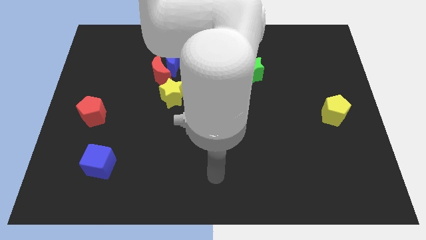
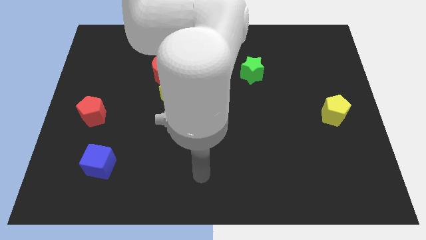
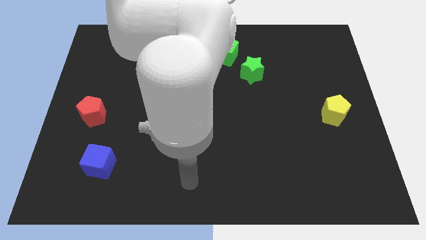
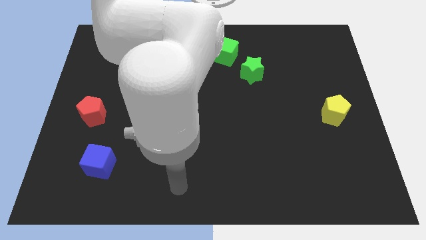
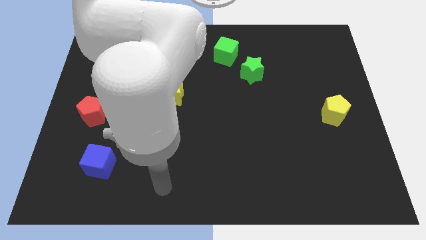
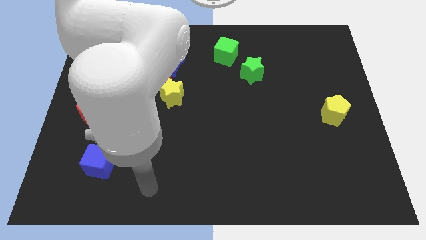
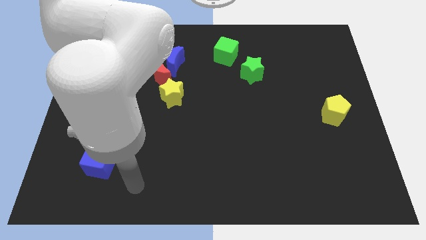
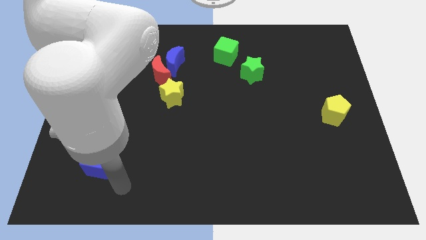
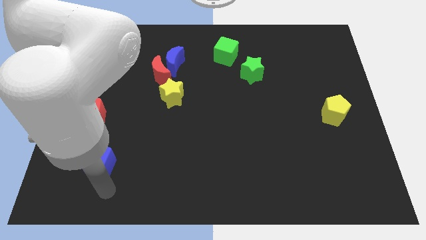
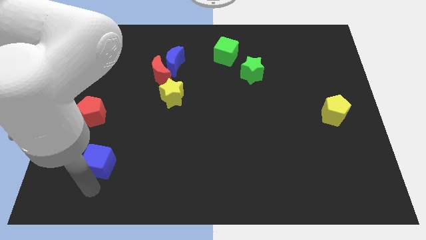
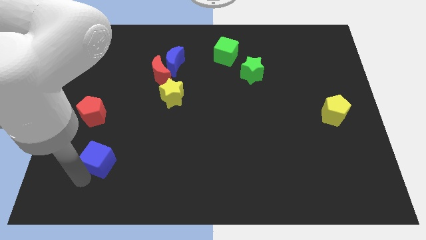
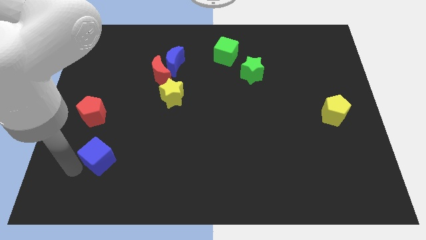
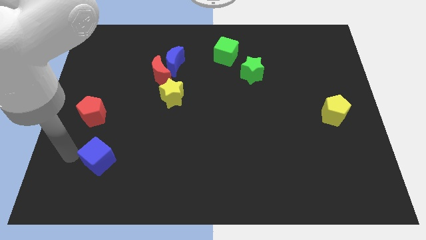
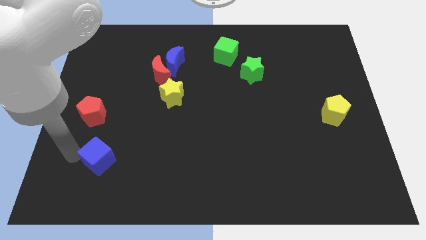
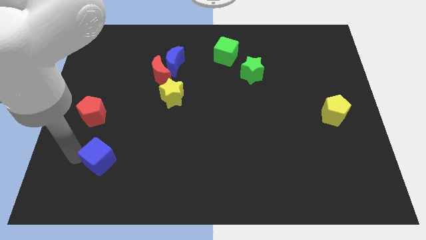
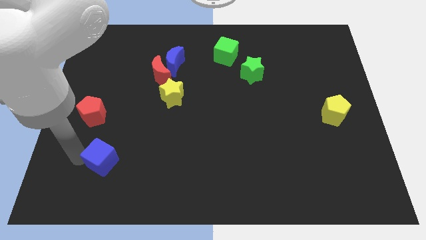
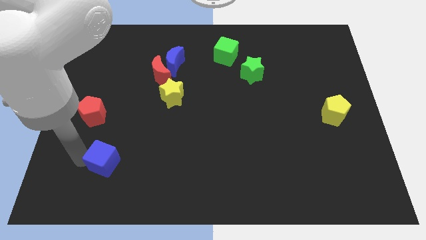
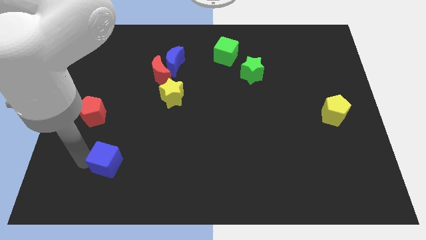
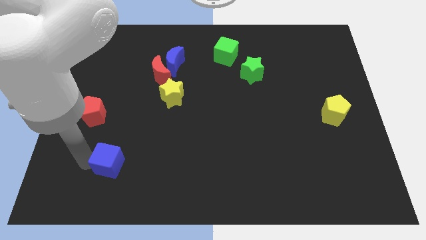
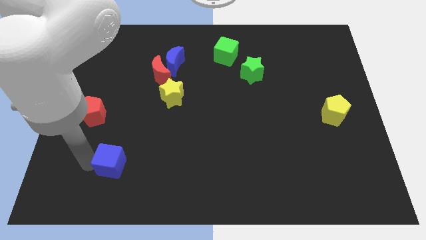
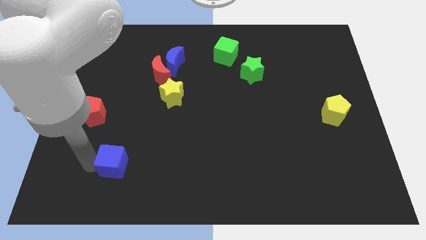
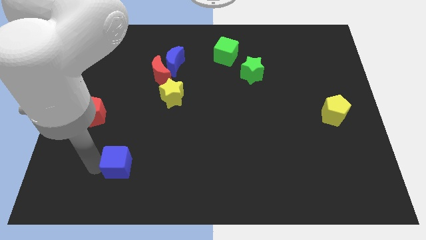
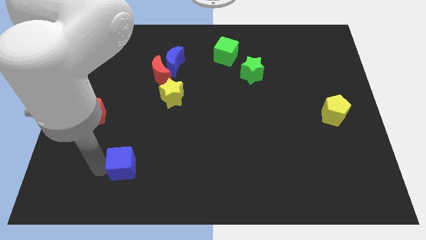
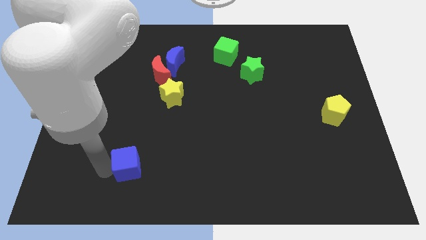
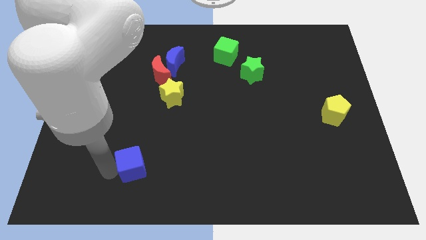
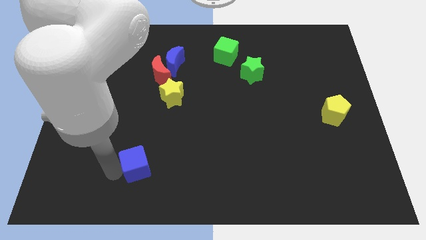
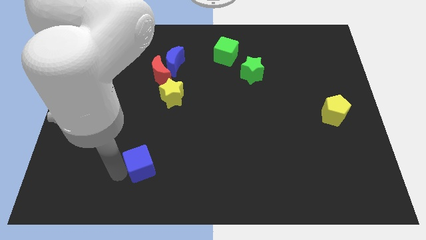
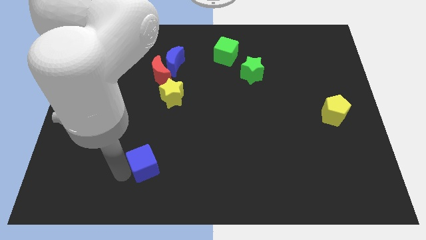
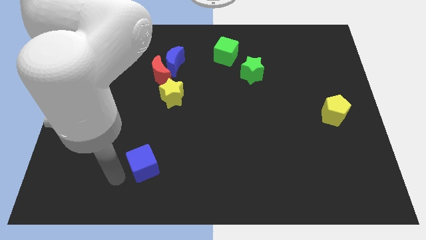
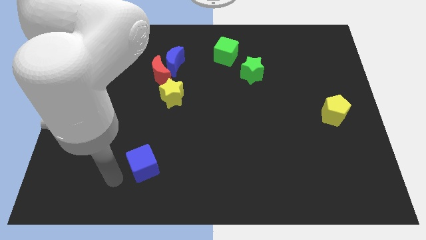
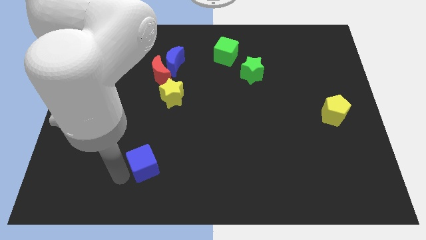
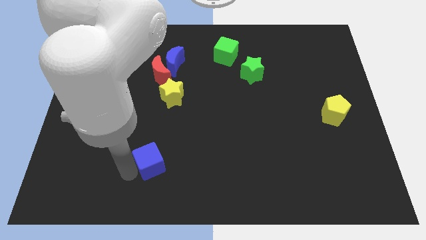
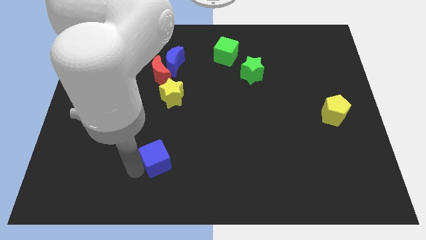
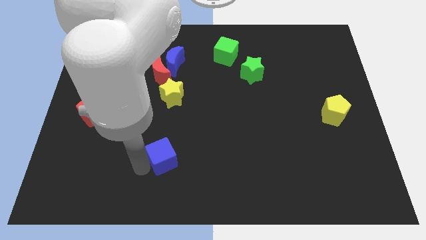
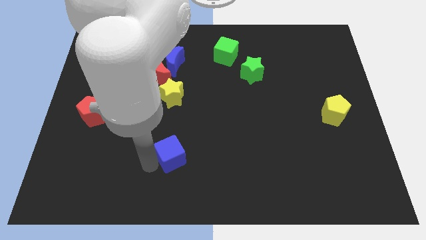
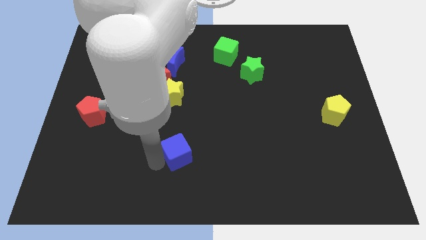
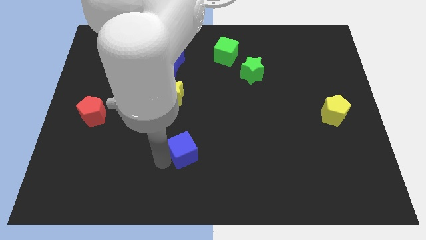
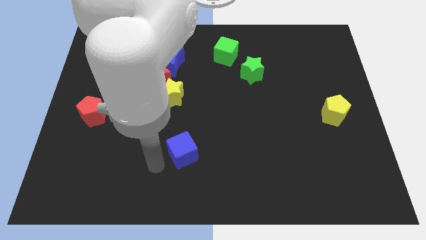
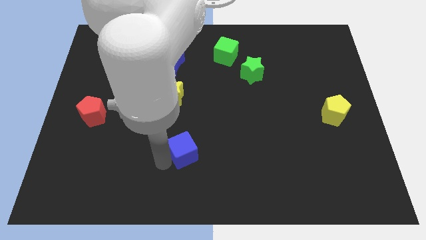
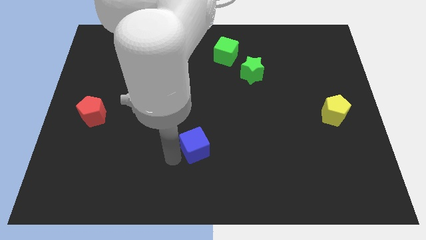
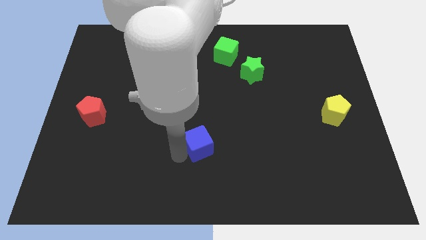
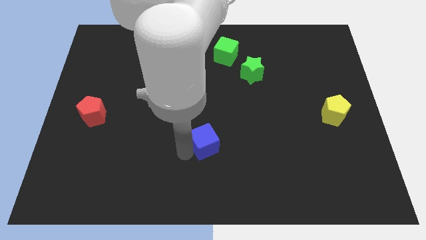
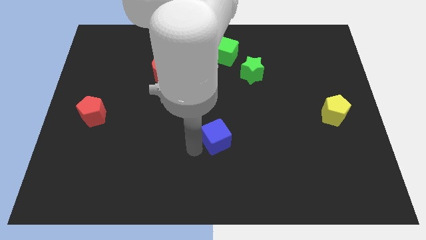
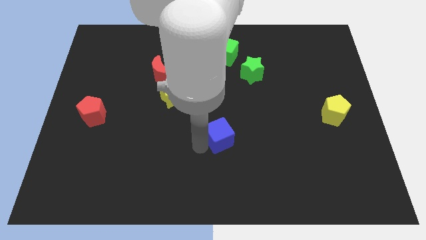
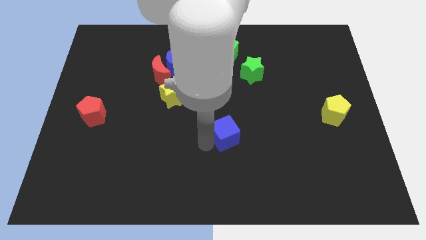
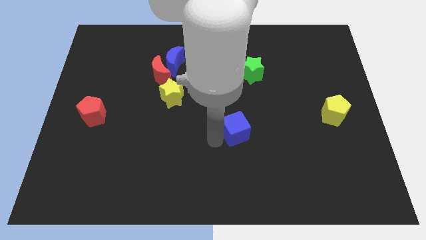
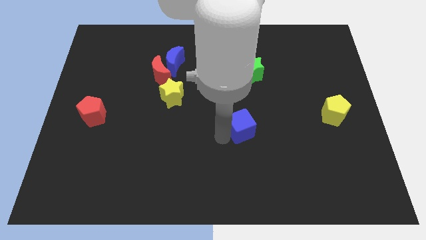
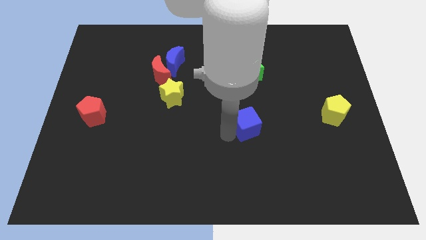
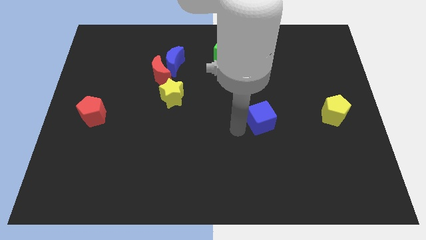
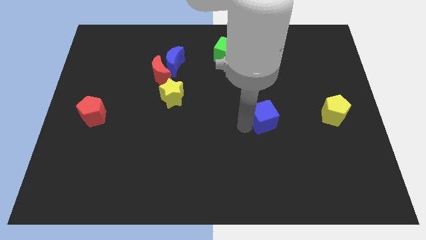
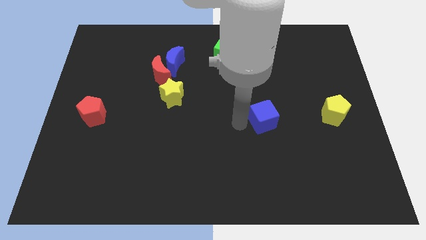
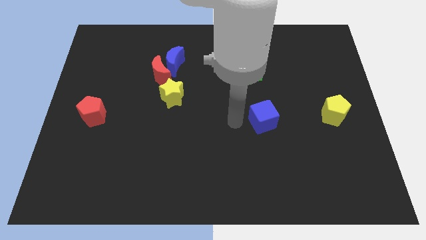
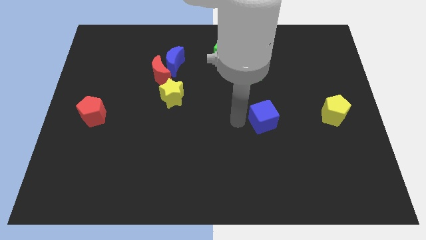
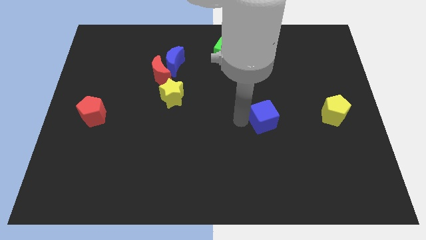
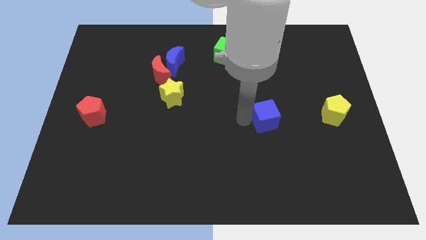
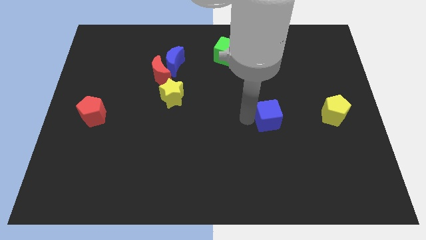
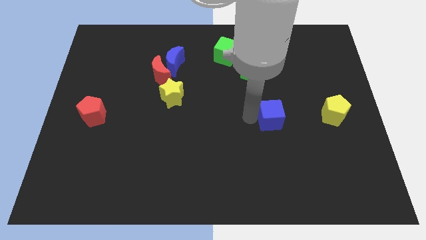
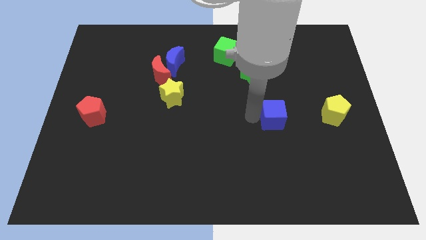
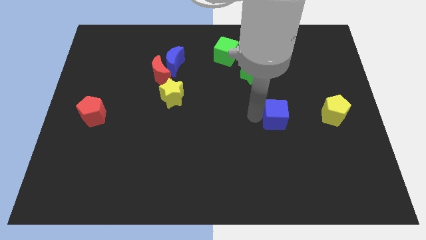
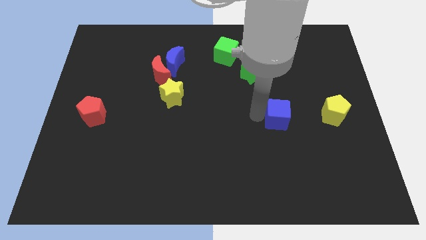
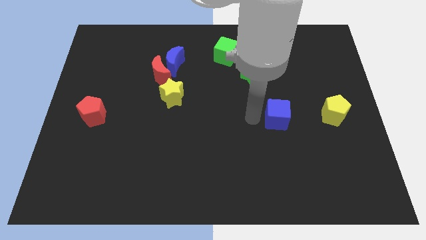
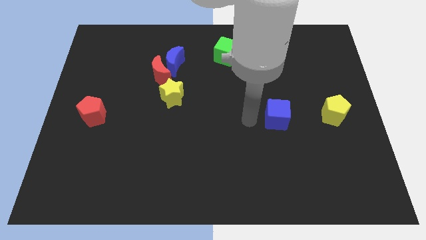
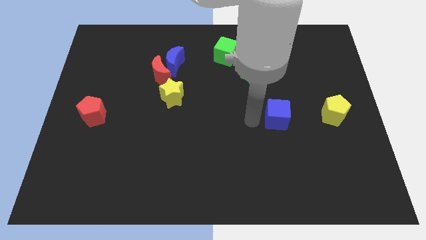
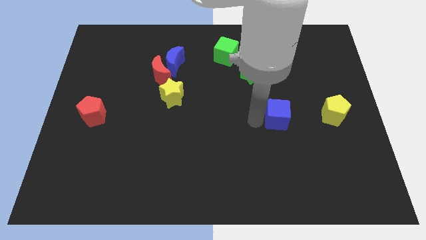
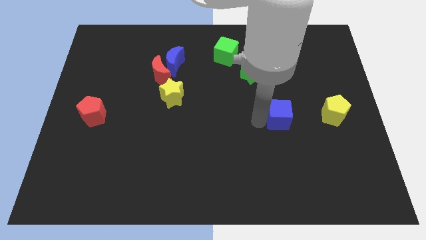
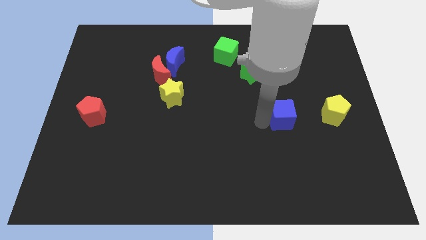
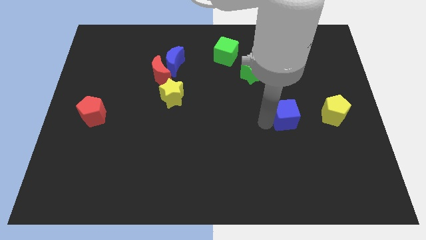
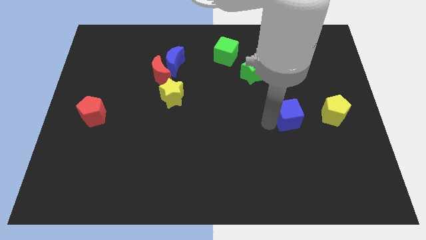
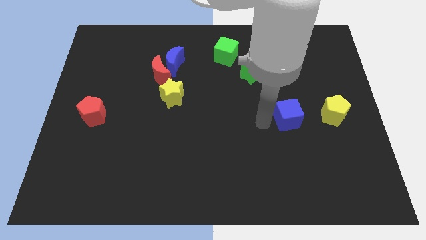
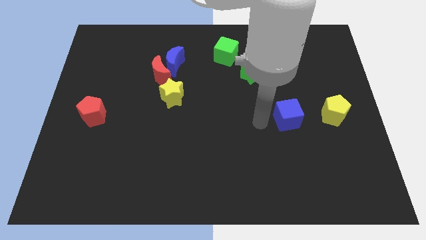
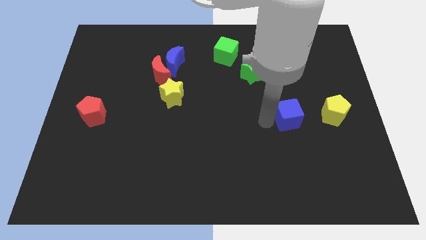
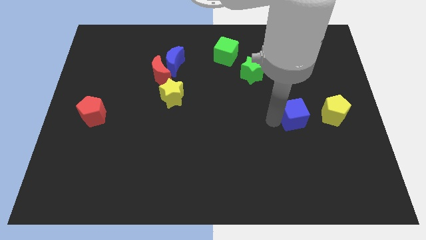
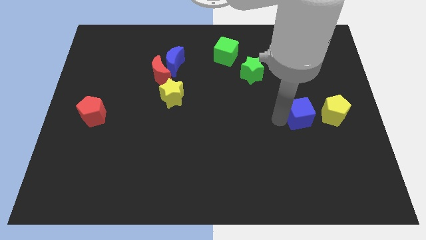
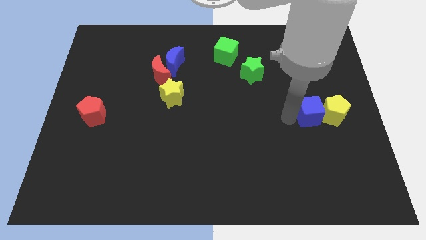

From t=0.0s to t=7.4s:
push the blue cube close to the yellow pentagon

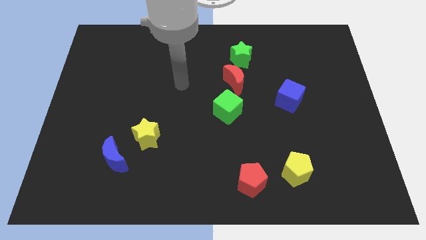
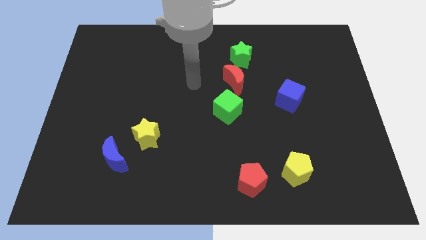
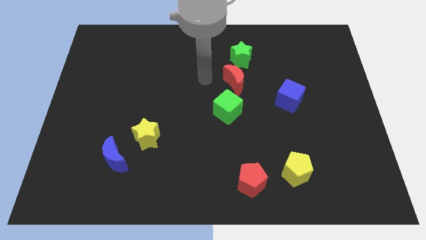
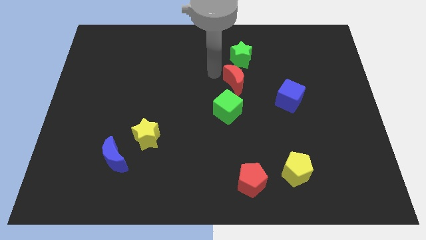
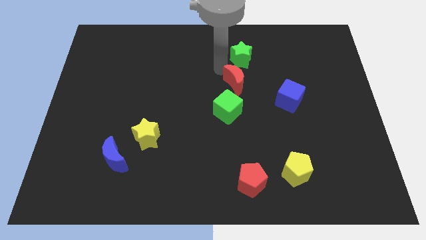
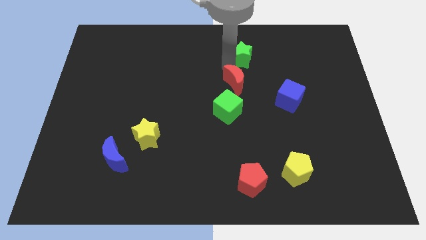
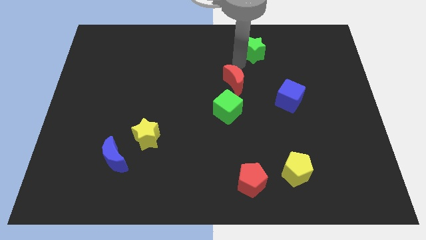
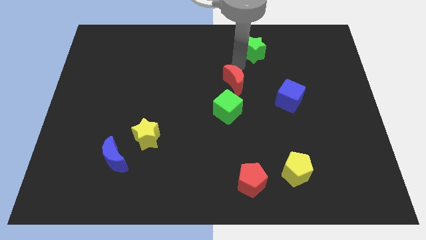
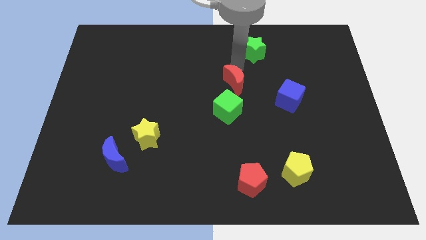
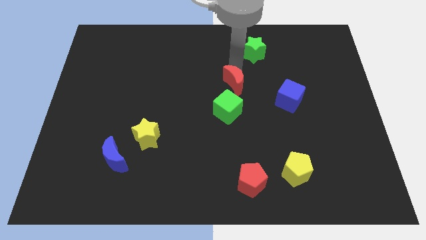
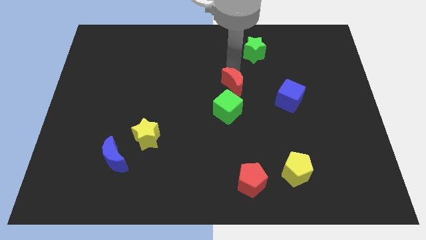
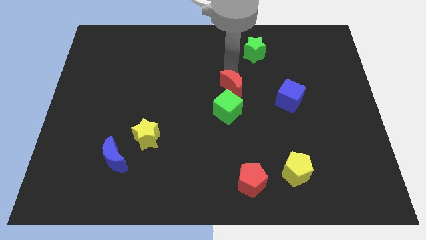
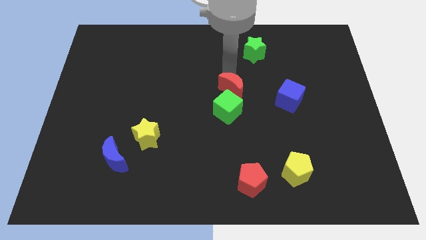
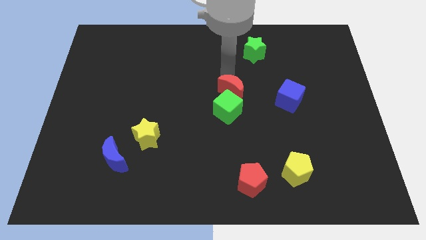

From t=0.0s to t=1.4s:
slide the red moon towards the green cube
